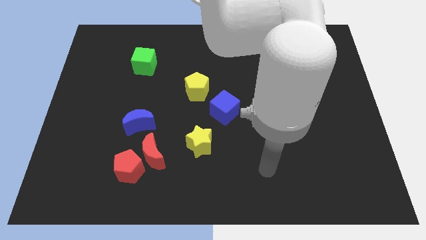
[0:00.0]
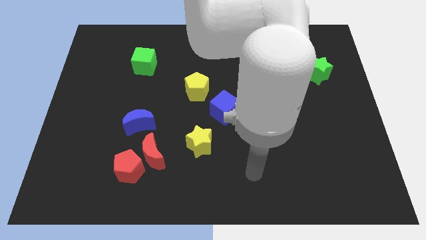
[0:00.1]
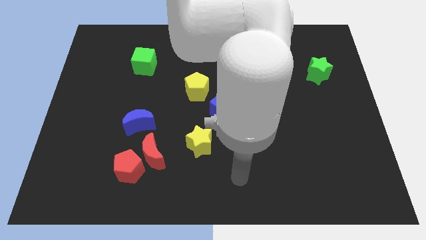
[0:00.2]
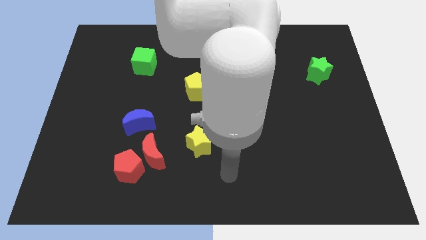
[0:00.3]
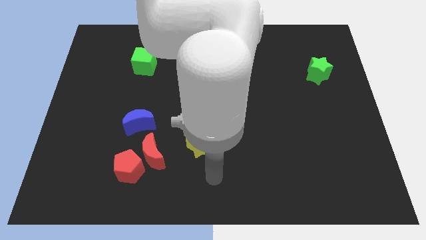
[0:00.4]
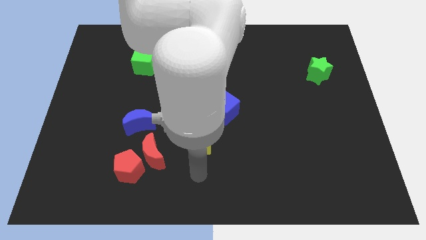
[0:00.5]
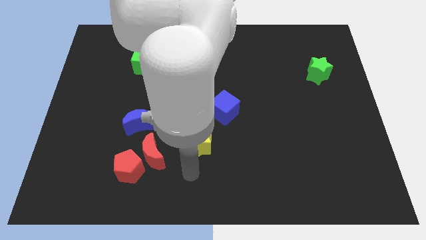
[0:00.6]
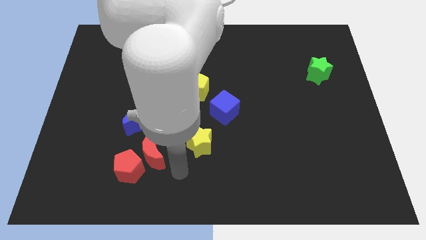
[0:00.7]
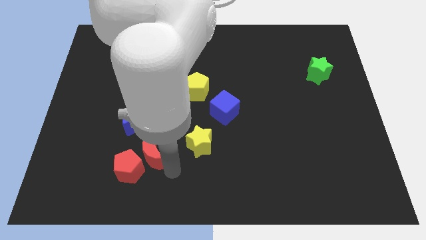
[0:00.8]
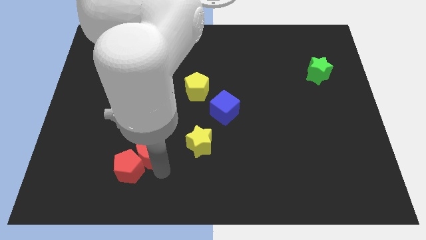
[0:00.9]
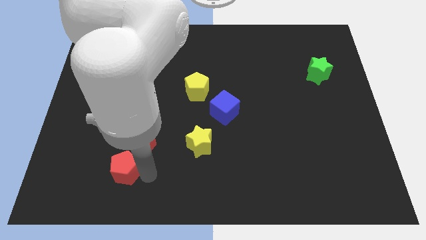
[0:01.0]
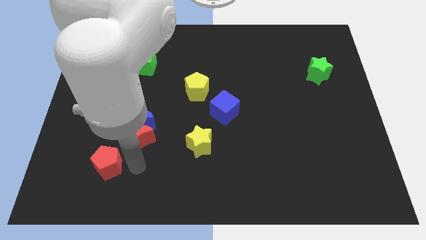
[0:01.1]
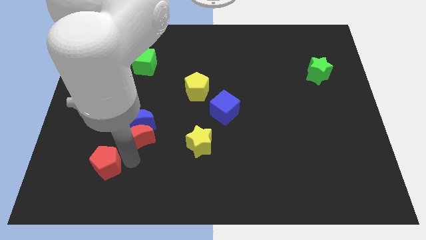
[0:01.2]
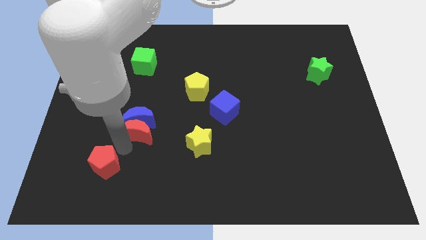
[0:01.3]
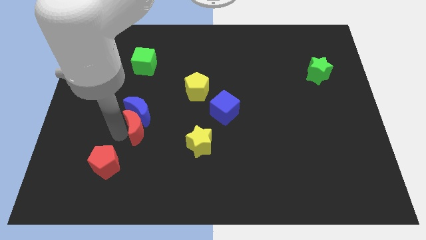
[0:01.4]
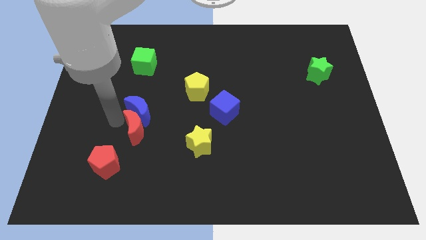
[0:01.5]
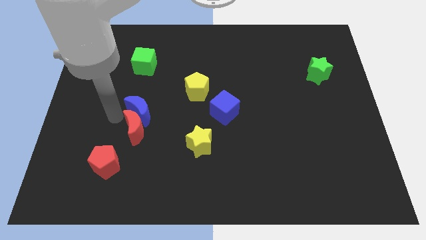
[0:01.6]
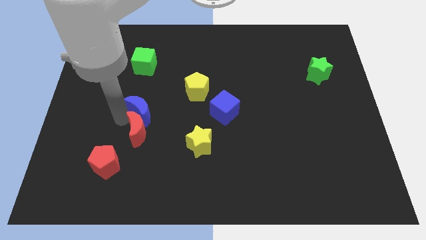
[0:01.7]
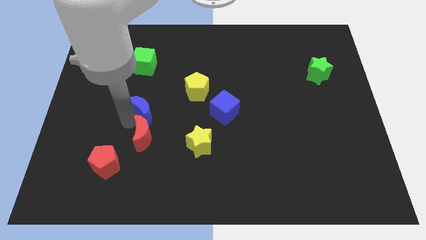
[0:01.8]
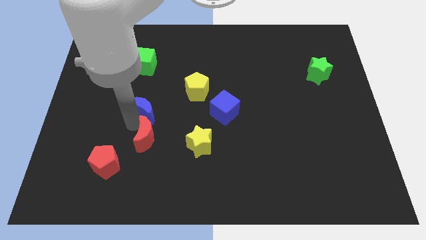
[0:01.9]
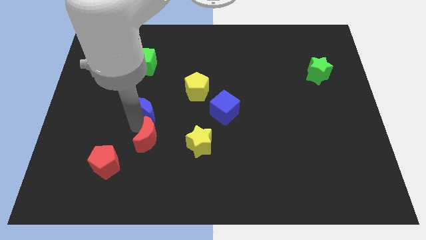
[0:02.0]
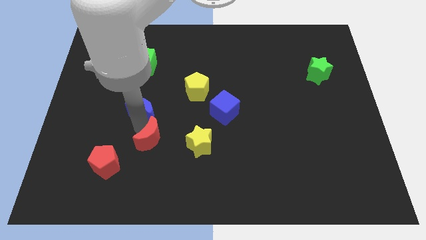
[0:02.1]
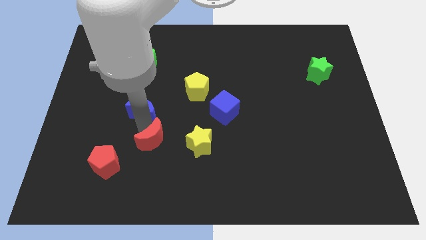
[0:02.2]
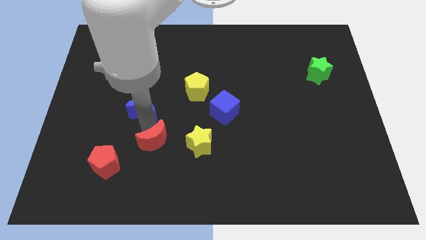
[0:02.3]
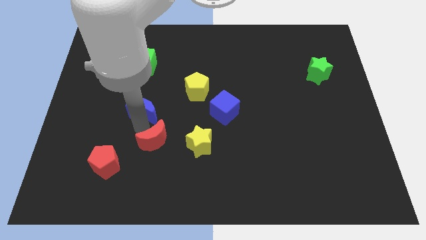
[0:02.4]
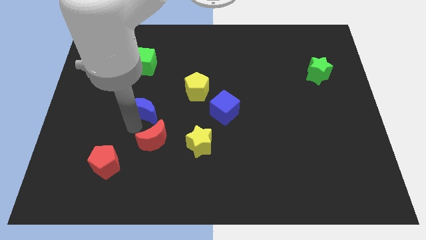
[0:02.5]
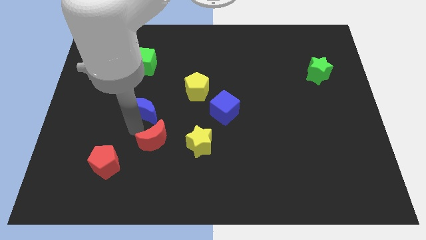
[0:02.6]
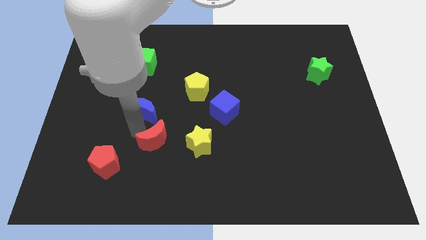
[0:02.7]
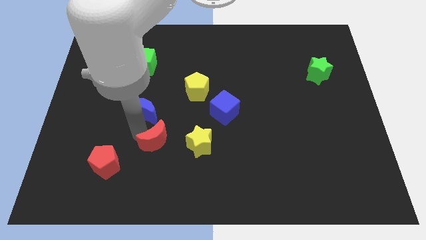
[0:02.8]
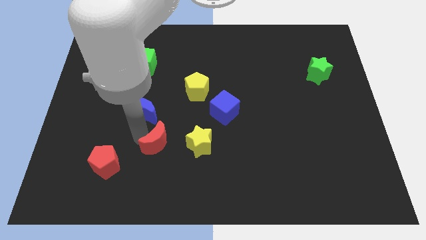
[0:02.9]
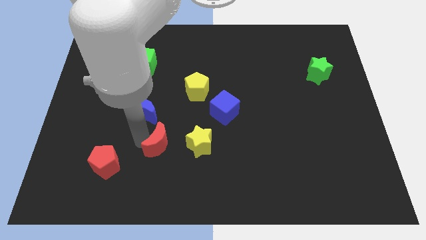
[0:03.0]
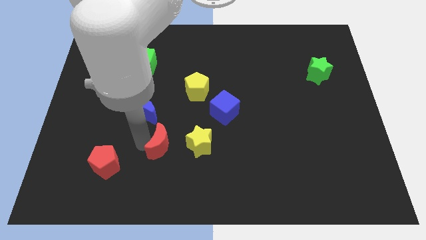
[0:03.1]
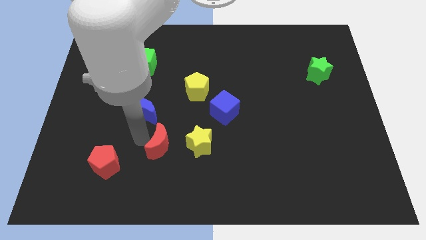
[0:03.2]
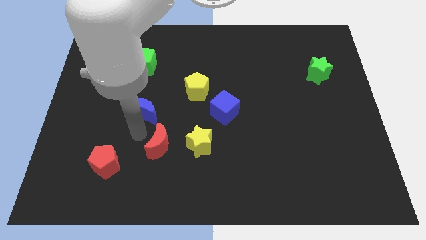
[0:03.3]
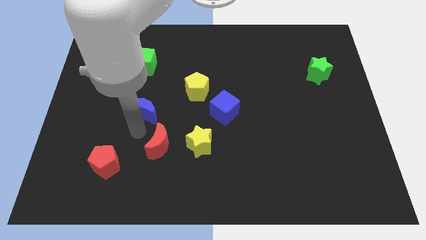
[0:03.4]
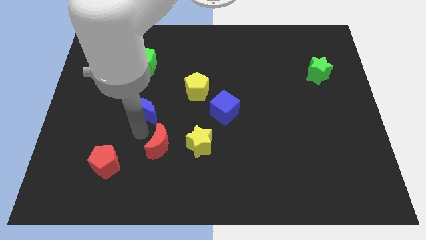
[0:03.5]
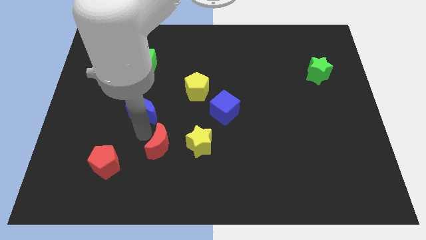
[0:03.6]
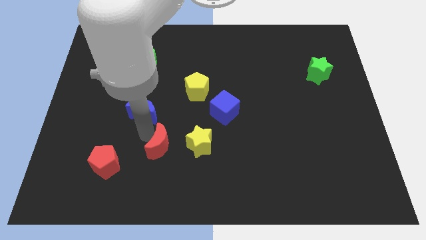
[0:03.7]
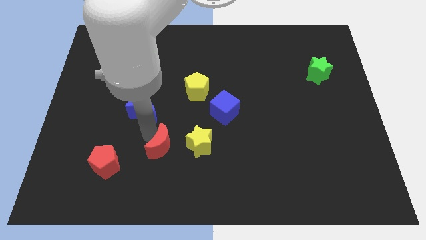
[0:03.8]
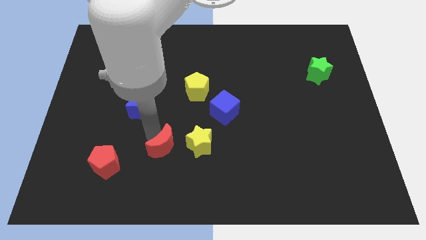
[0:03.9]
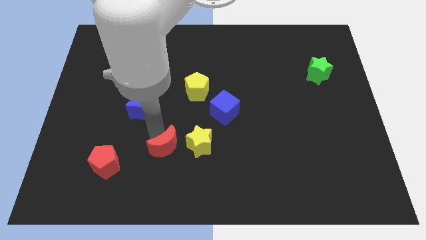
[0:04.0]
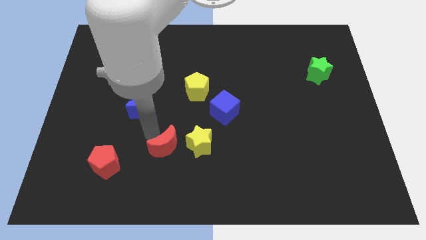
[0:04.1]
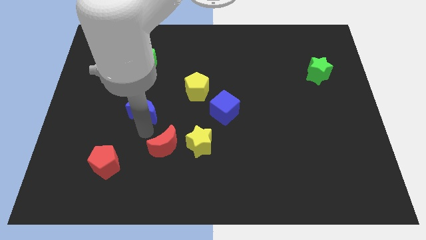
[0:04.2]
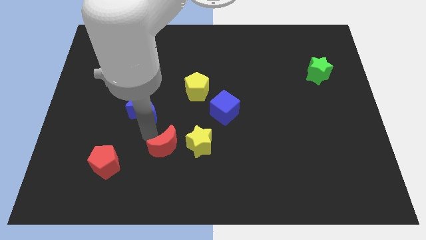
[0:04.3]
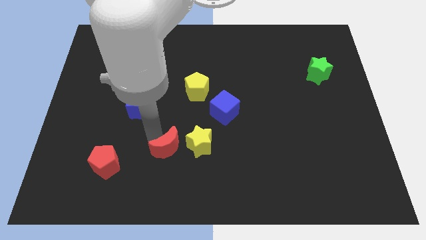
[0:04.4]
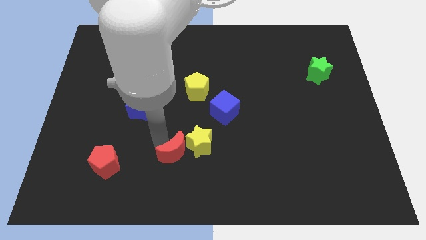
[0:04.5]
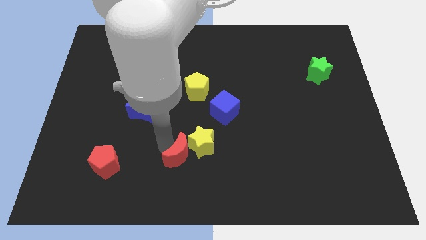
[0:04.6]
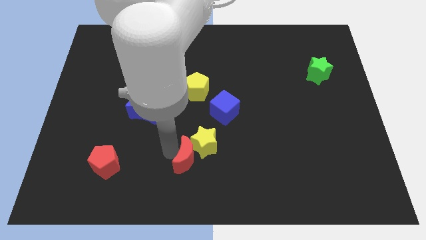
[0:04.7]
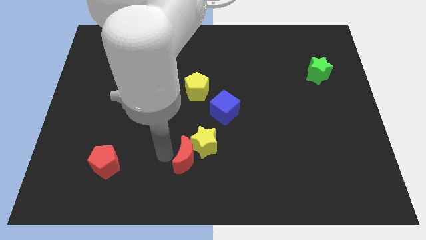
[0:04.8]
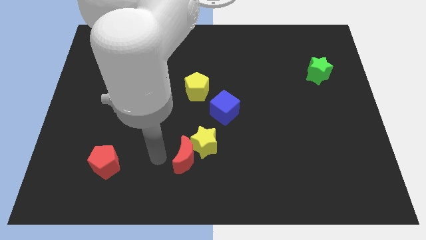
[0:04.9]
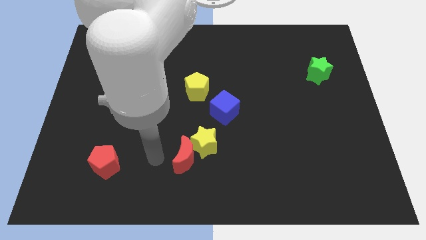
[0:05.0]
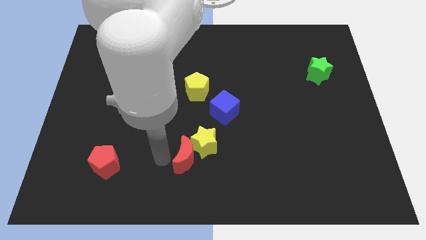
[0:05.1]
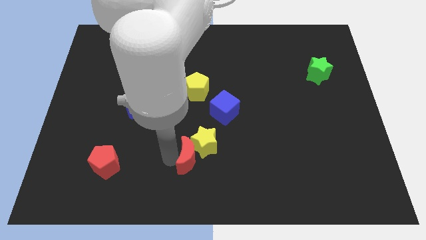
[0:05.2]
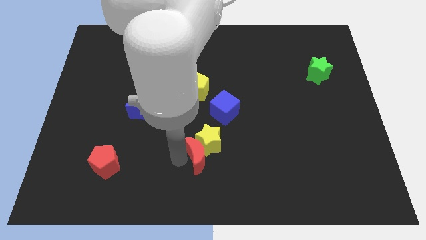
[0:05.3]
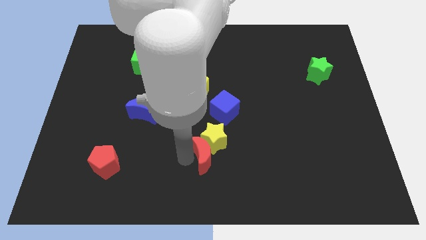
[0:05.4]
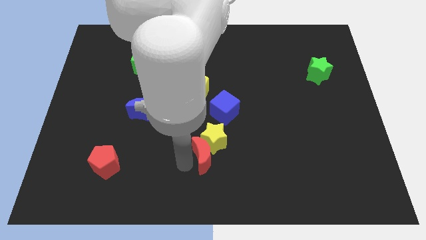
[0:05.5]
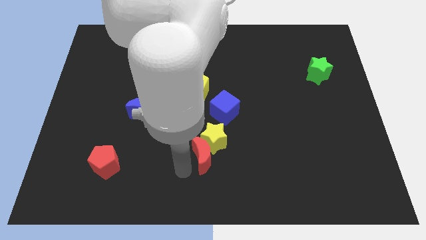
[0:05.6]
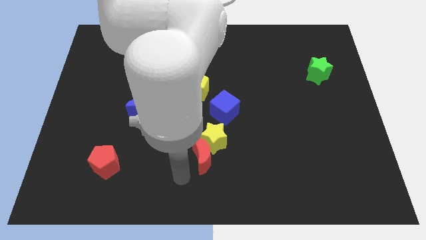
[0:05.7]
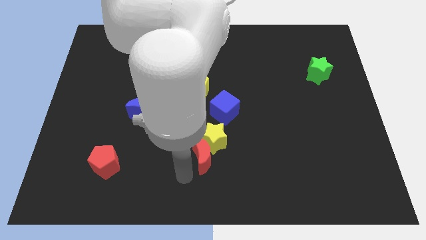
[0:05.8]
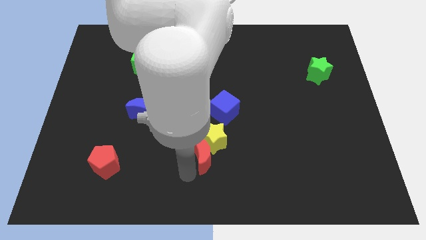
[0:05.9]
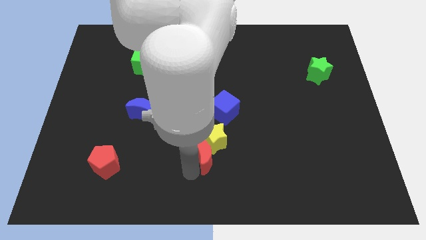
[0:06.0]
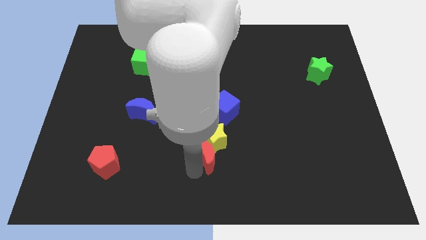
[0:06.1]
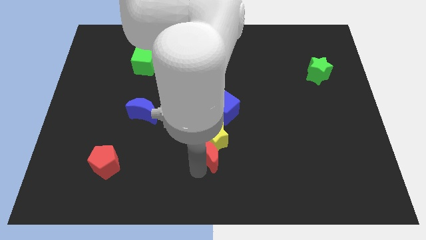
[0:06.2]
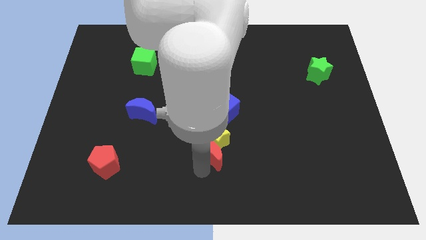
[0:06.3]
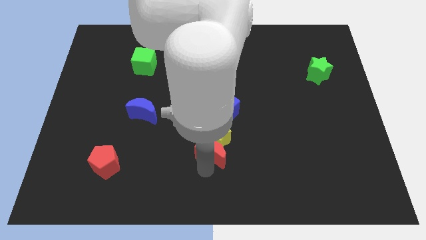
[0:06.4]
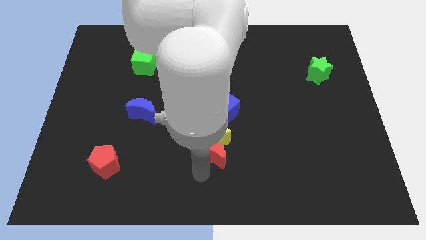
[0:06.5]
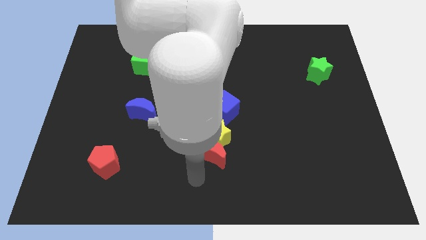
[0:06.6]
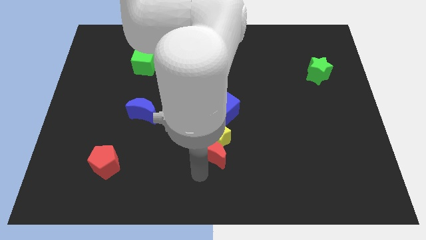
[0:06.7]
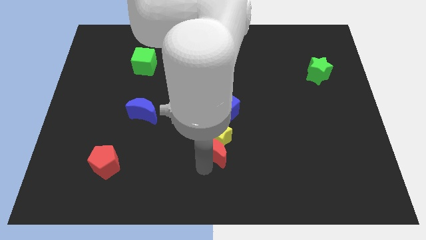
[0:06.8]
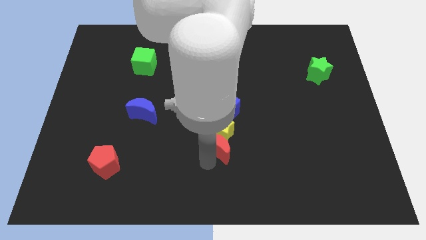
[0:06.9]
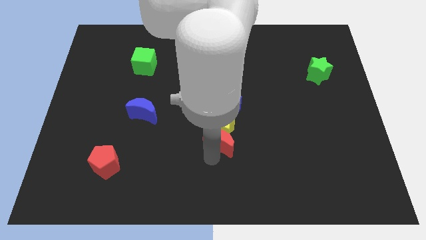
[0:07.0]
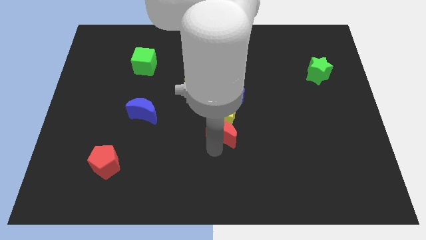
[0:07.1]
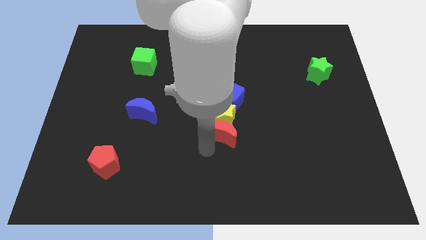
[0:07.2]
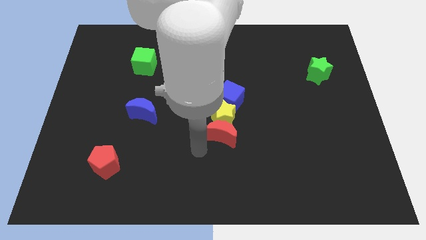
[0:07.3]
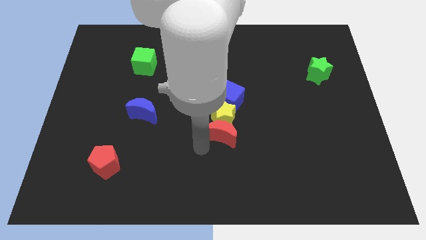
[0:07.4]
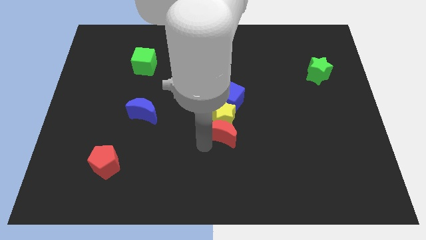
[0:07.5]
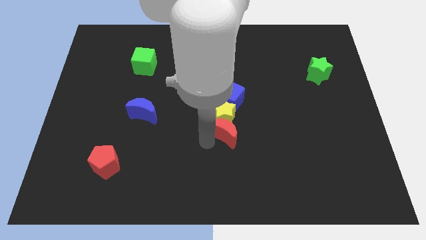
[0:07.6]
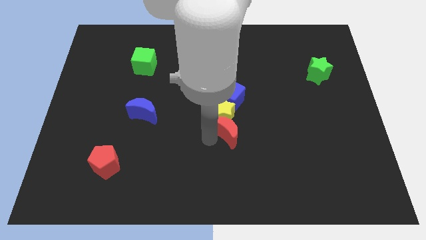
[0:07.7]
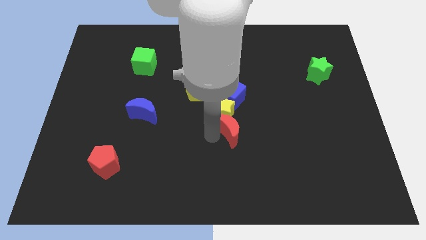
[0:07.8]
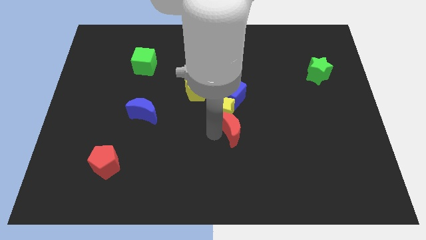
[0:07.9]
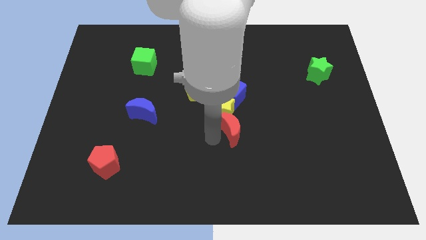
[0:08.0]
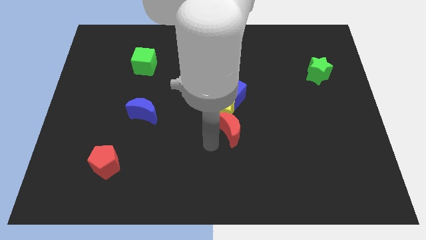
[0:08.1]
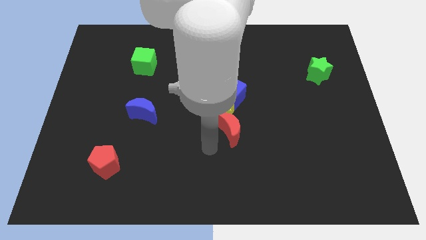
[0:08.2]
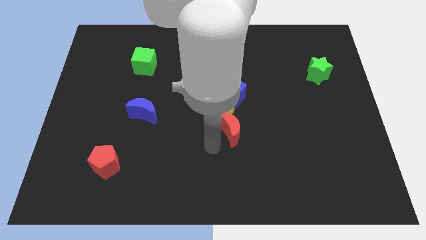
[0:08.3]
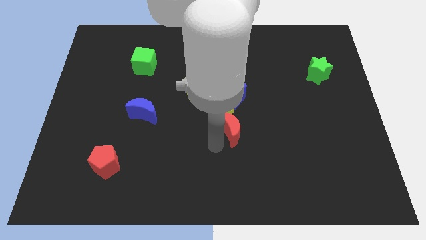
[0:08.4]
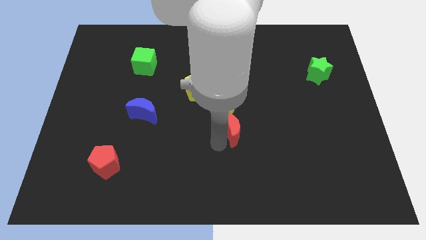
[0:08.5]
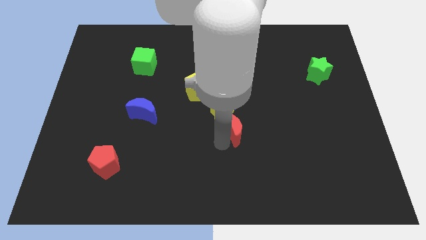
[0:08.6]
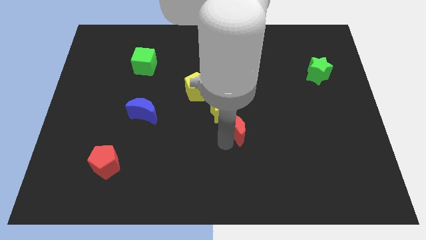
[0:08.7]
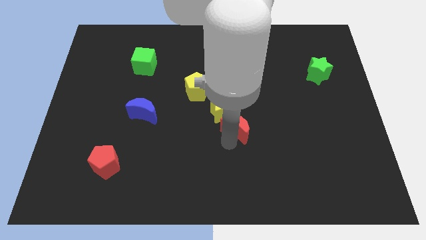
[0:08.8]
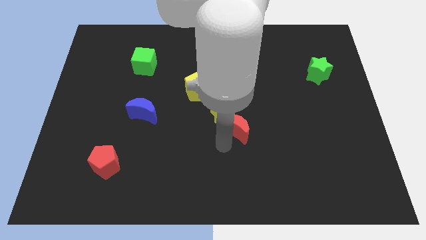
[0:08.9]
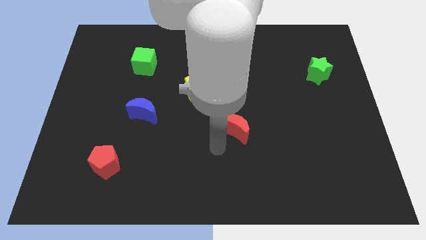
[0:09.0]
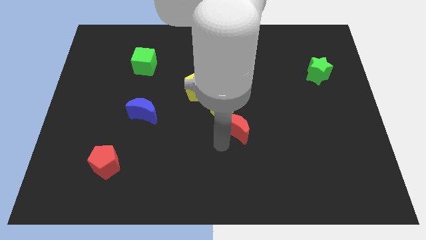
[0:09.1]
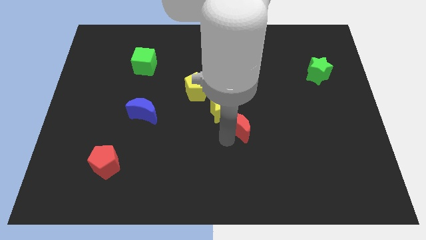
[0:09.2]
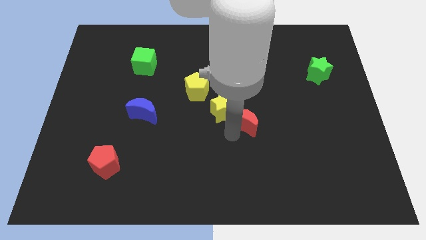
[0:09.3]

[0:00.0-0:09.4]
slide the red moon diagonally down and to the right of the blue cube
